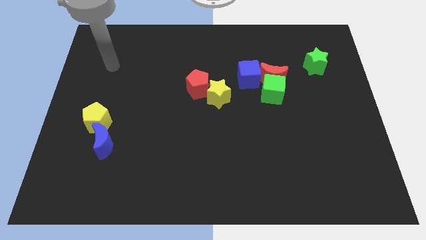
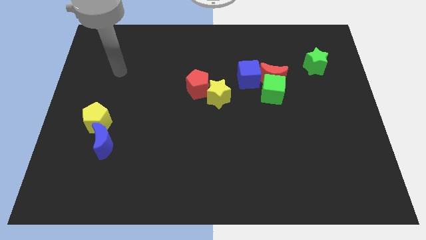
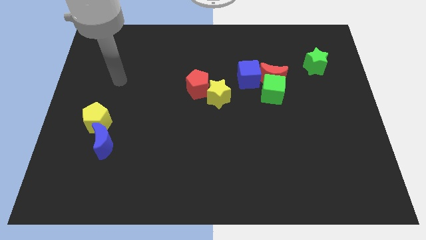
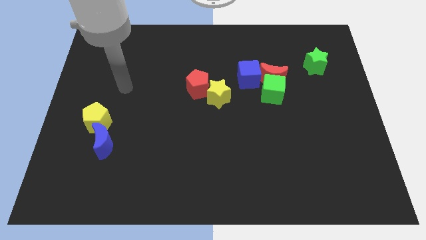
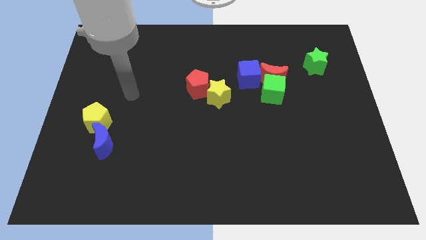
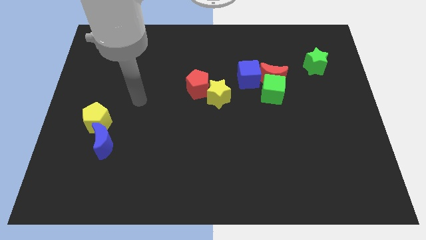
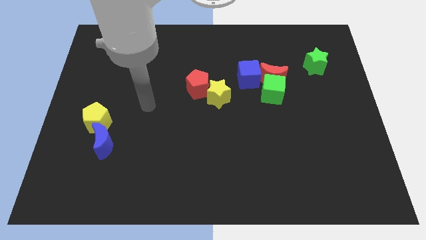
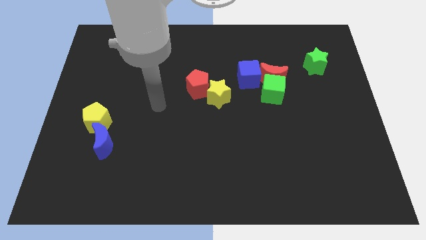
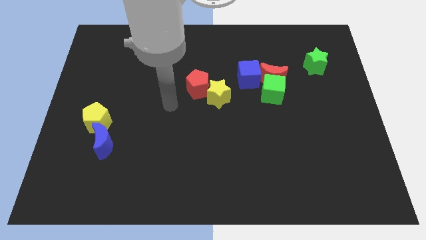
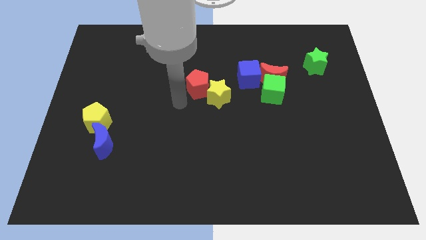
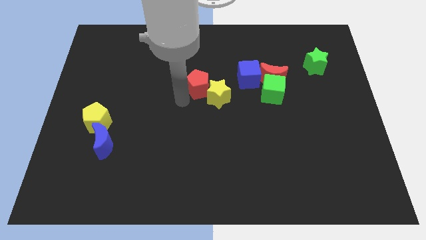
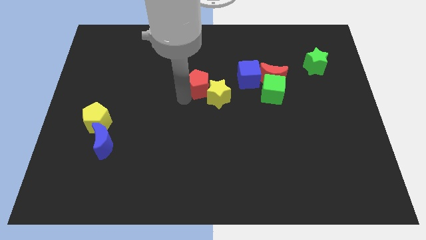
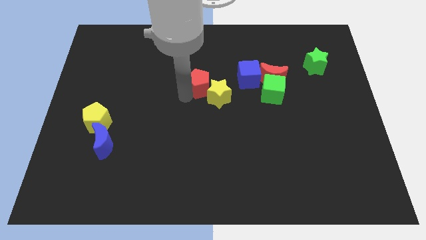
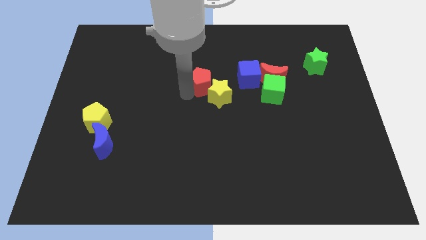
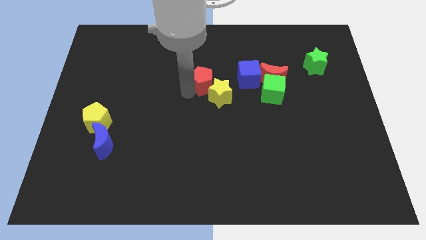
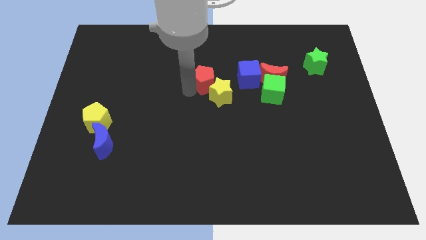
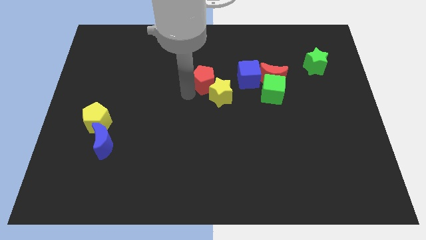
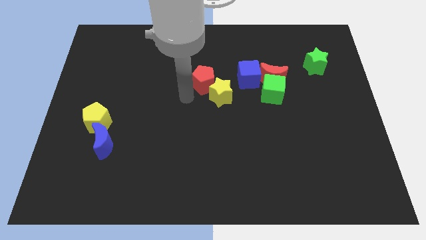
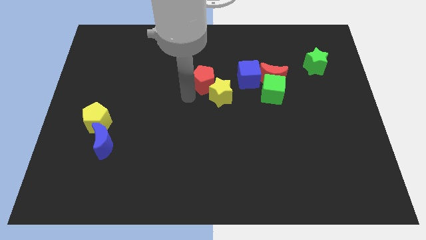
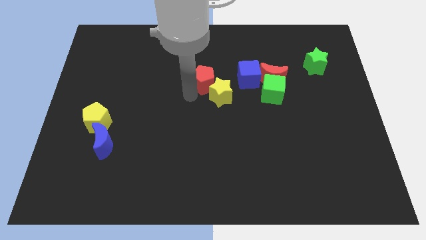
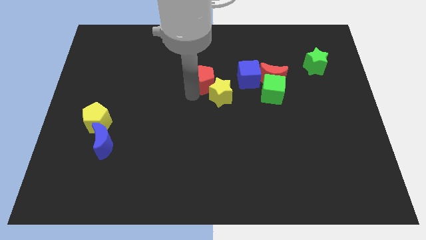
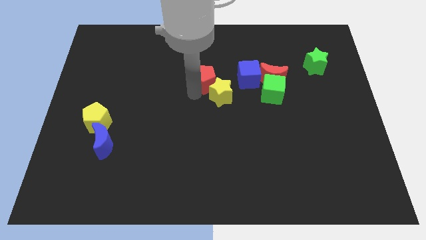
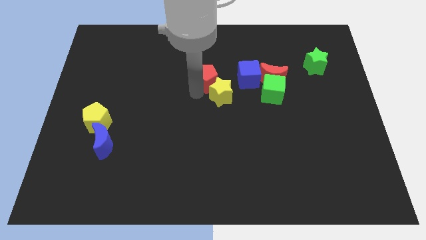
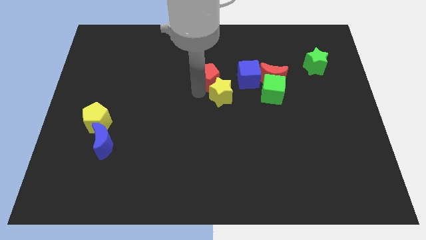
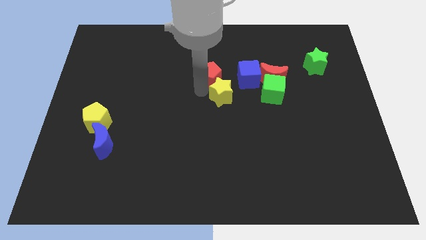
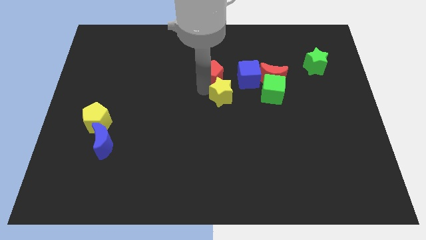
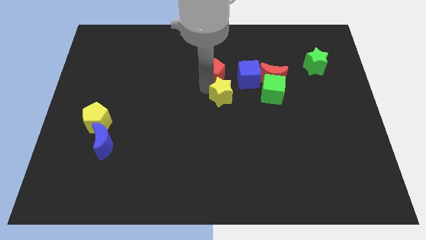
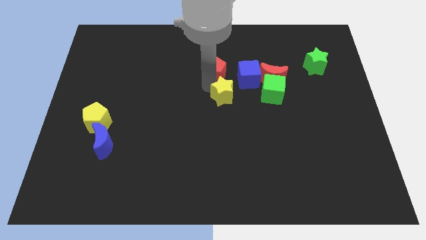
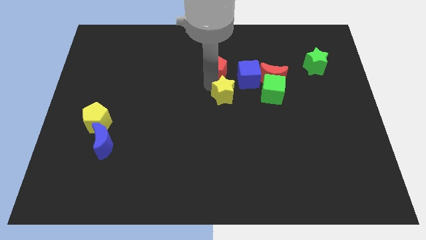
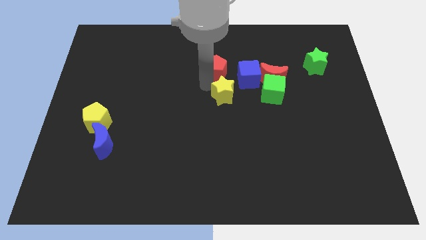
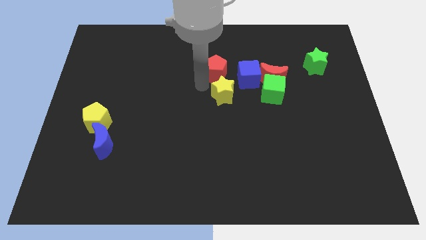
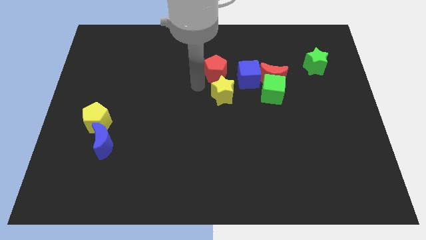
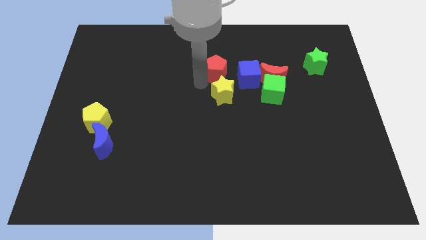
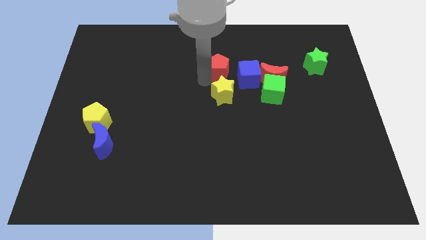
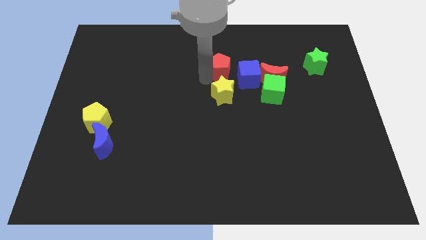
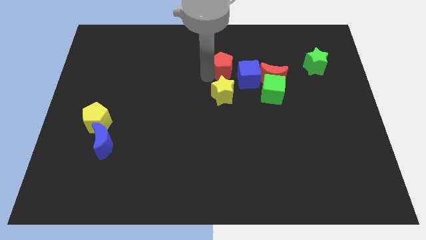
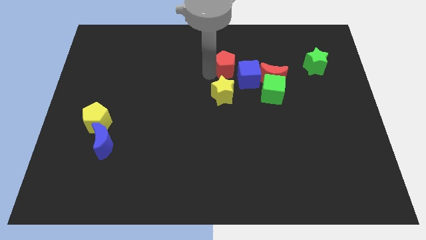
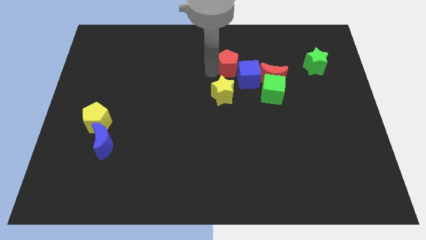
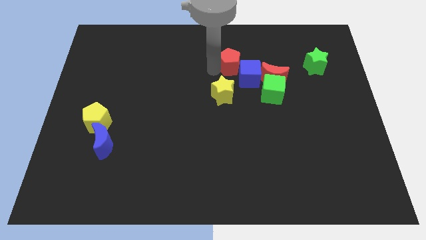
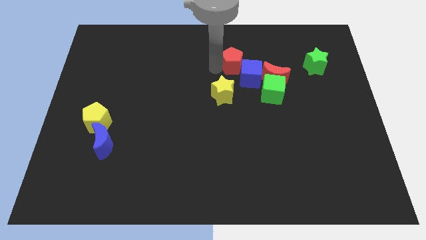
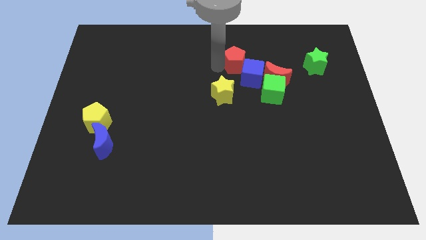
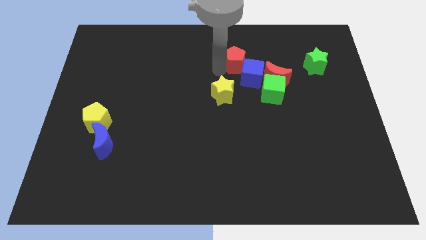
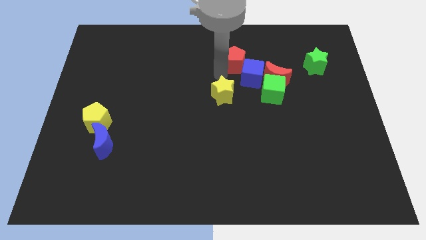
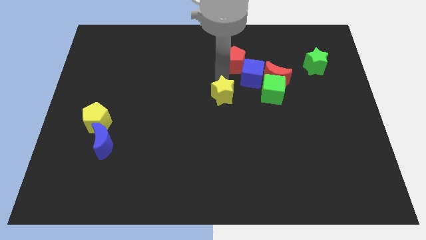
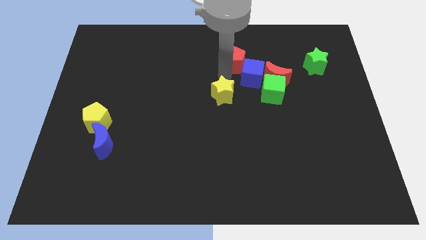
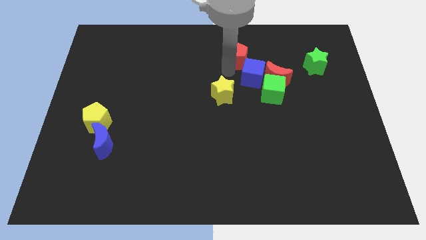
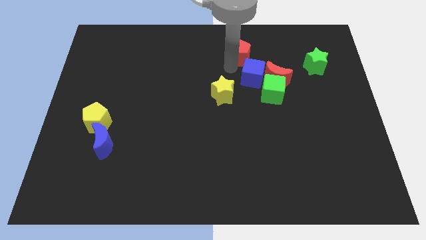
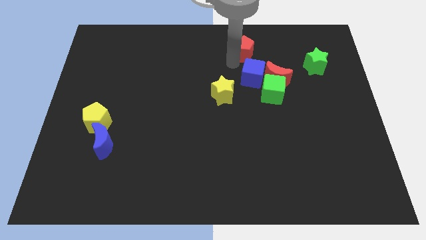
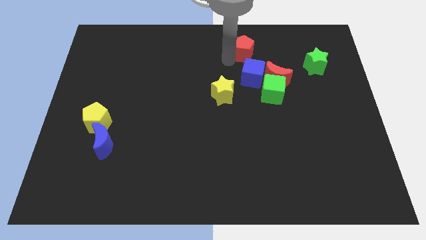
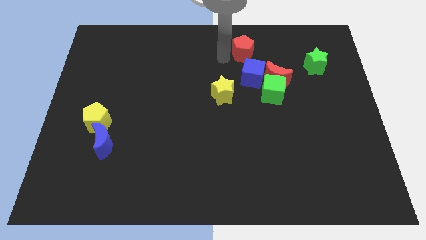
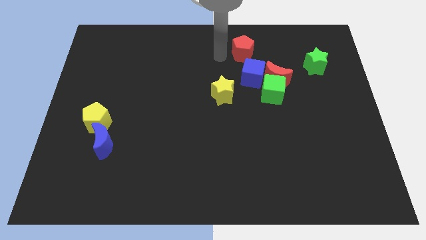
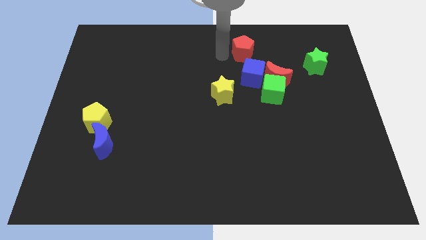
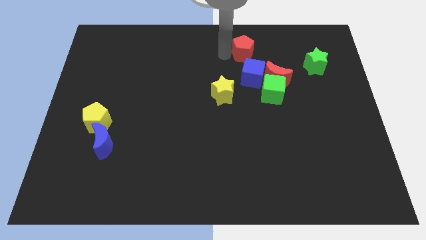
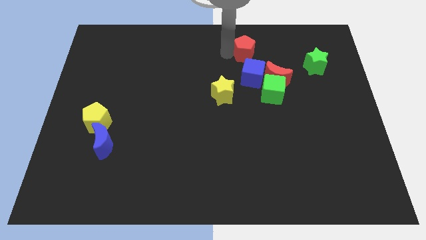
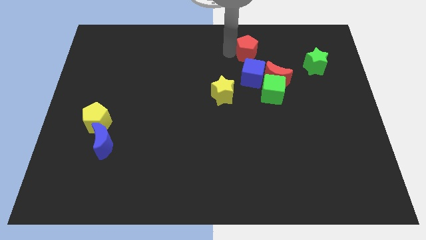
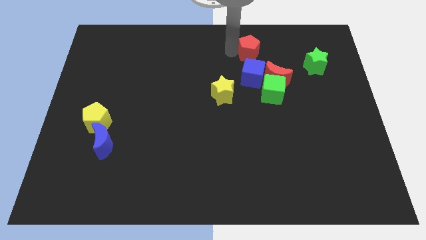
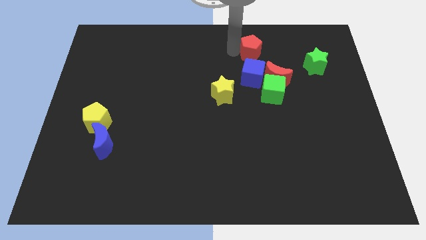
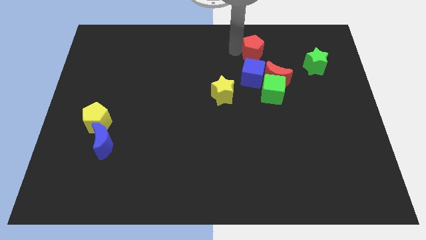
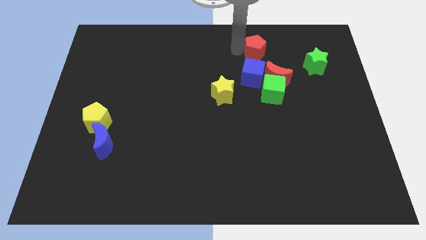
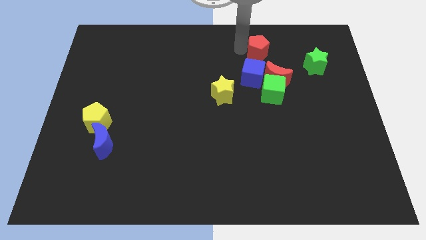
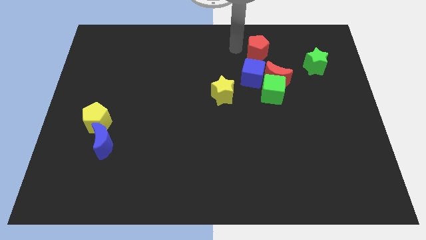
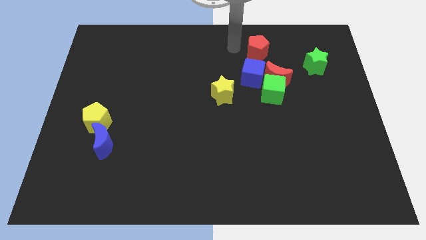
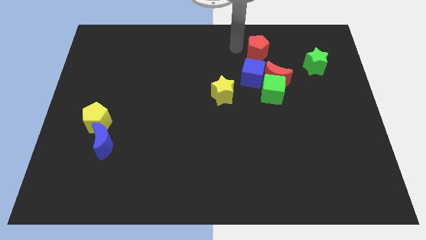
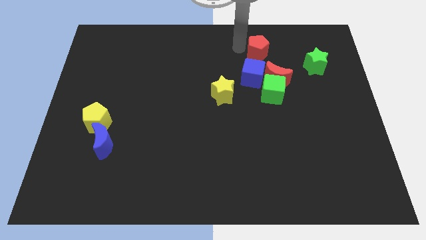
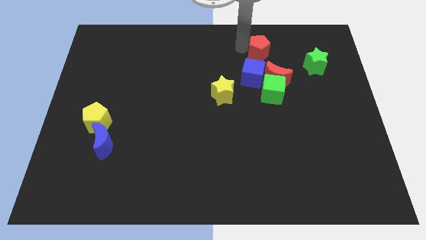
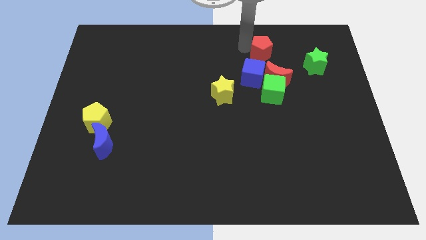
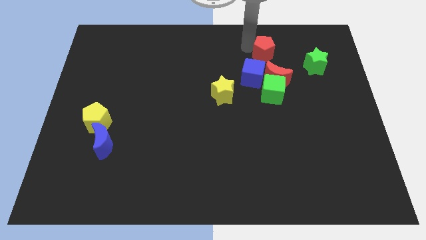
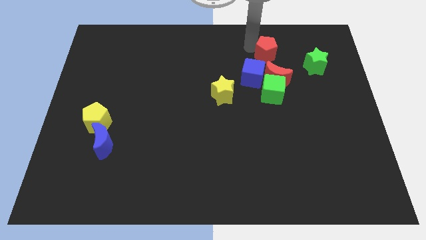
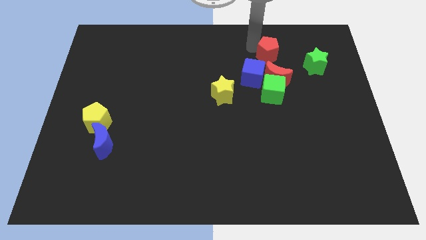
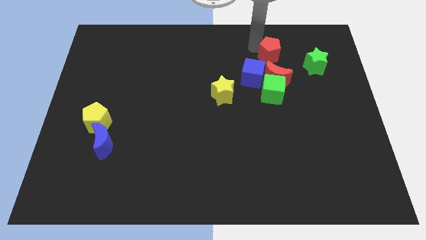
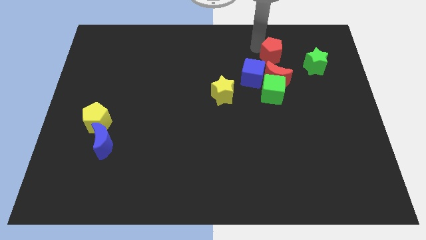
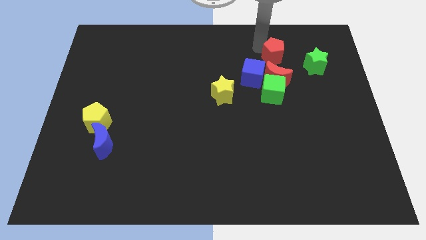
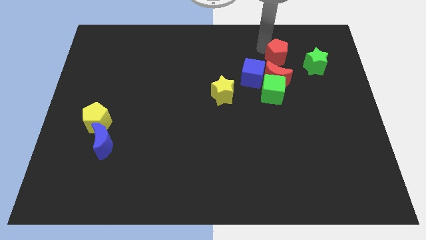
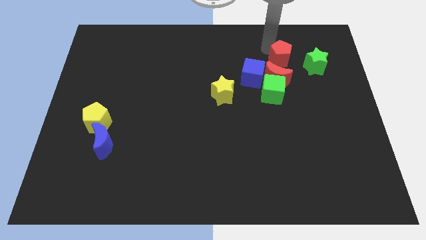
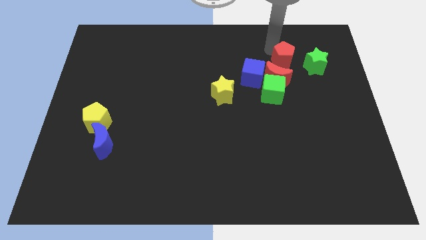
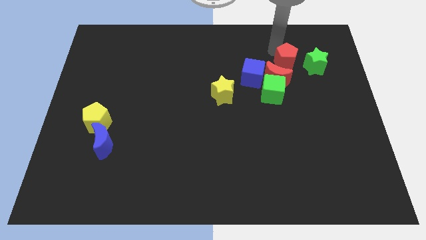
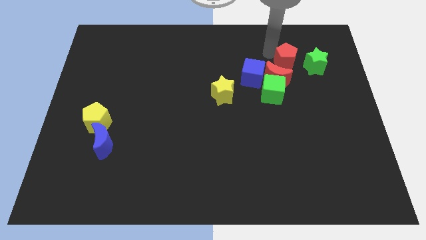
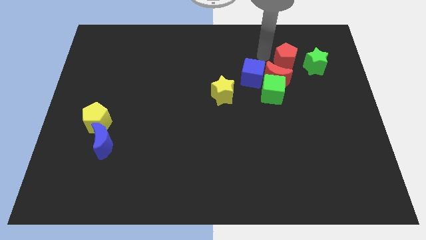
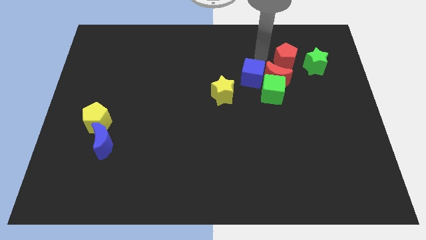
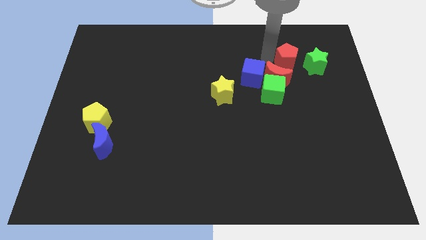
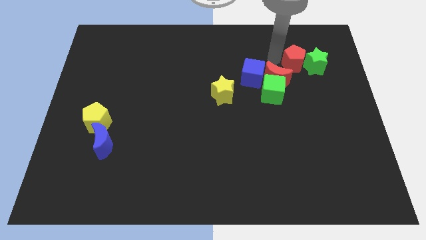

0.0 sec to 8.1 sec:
push the red pentagon close to the green star
